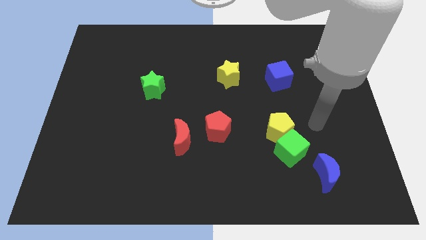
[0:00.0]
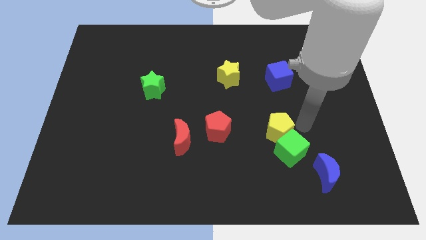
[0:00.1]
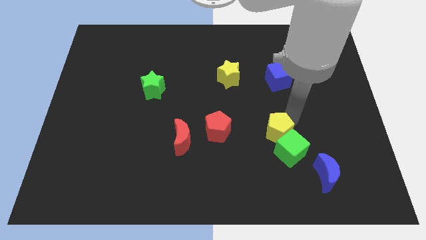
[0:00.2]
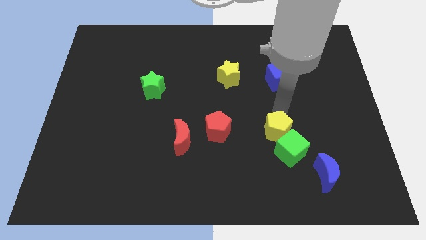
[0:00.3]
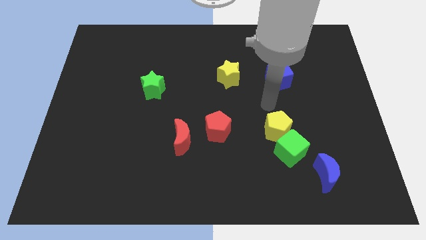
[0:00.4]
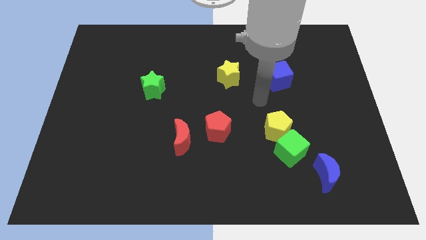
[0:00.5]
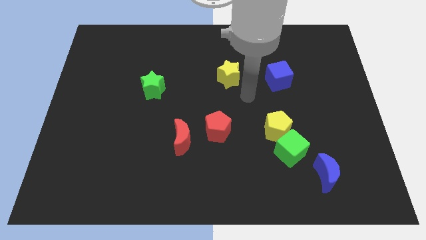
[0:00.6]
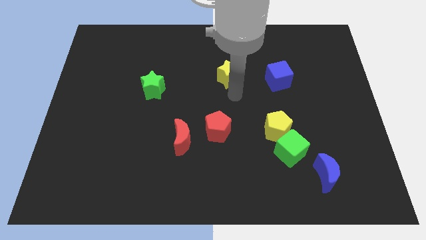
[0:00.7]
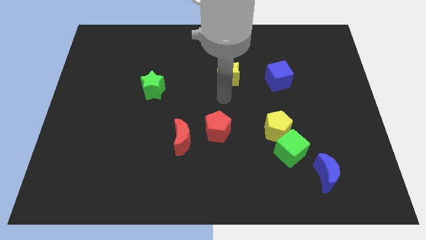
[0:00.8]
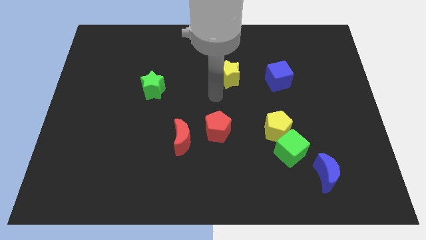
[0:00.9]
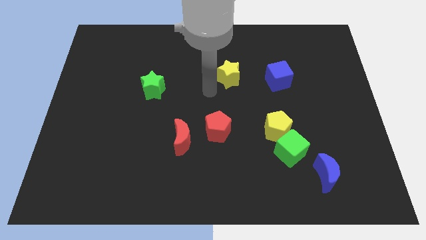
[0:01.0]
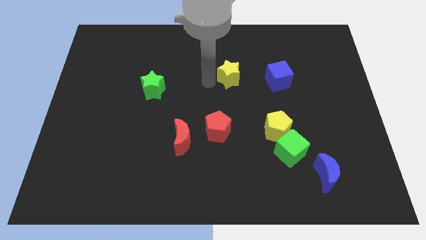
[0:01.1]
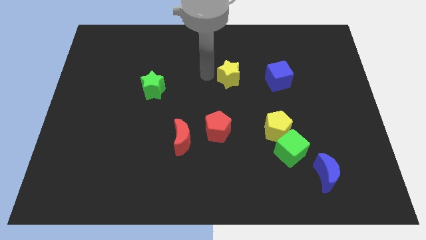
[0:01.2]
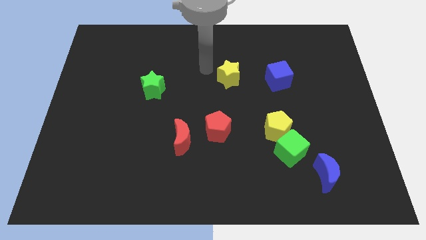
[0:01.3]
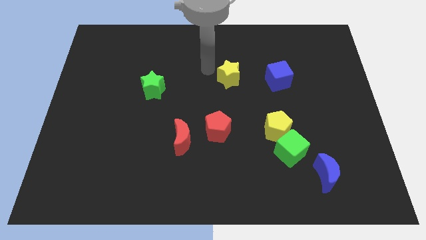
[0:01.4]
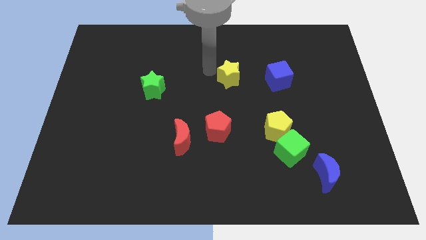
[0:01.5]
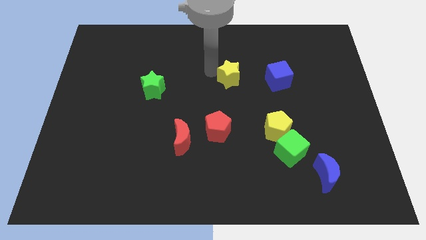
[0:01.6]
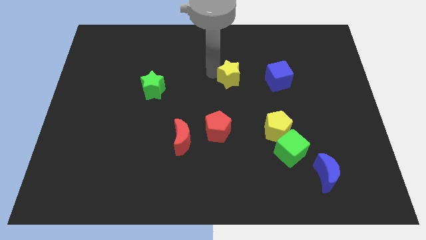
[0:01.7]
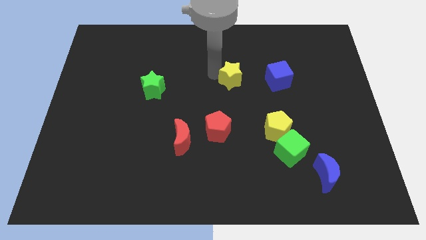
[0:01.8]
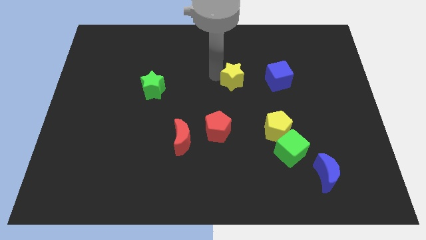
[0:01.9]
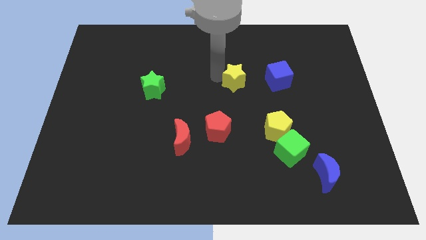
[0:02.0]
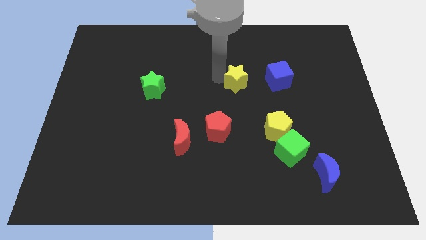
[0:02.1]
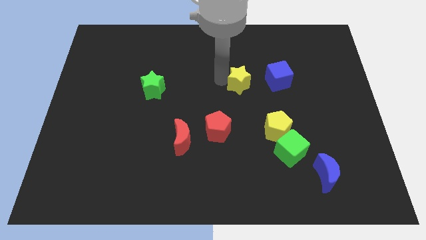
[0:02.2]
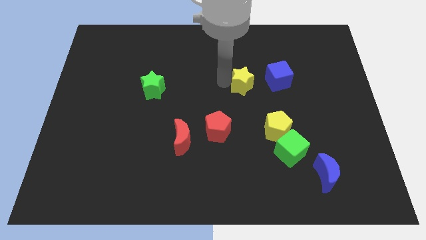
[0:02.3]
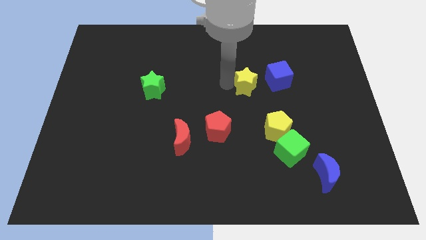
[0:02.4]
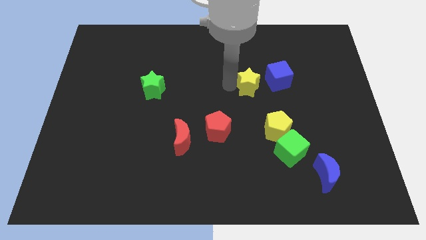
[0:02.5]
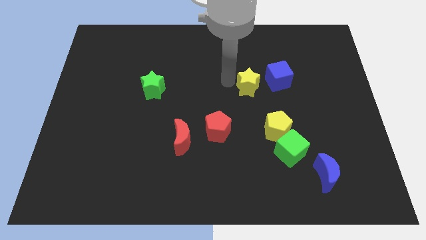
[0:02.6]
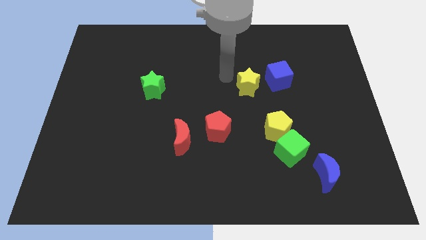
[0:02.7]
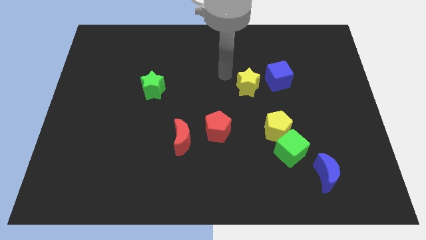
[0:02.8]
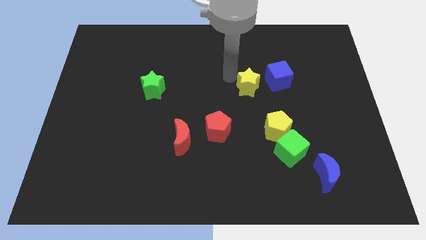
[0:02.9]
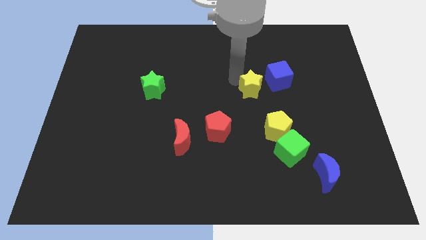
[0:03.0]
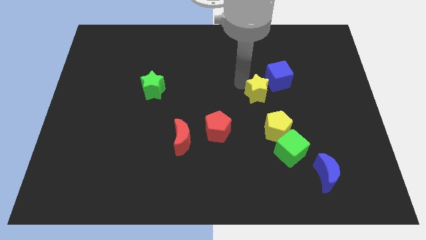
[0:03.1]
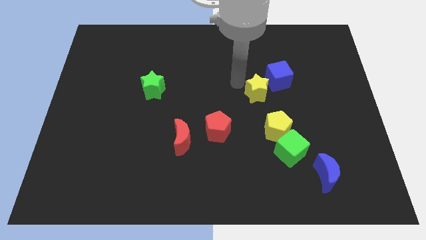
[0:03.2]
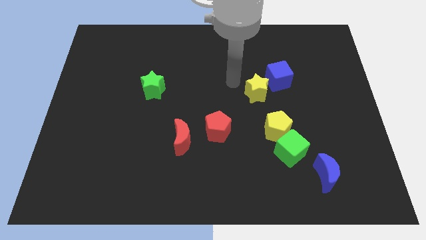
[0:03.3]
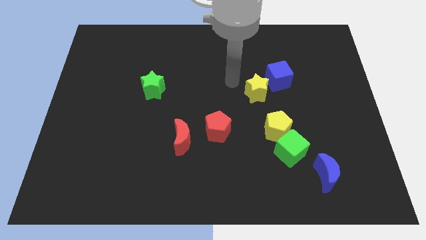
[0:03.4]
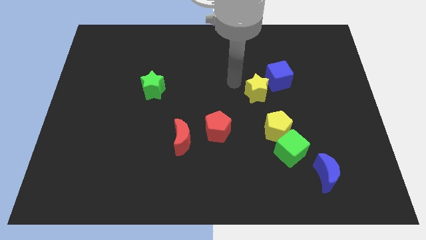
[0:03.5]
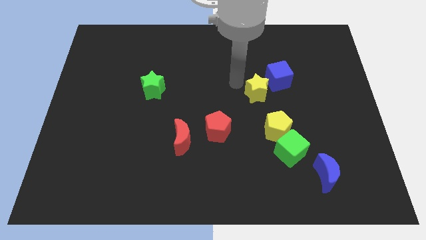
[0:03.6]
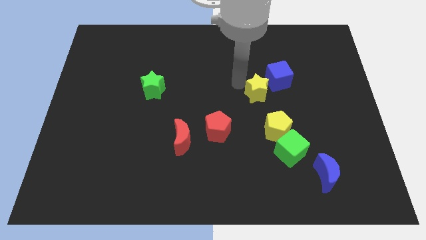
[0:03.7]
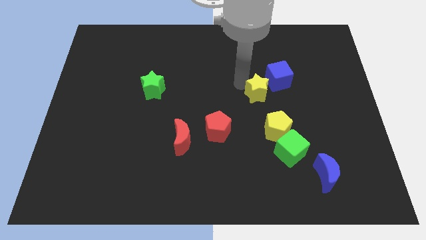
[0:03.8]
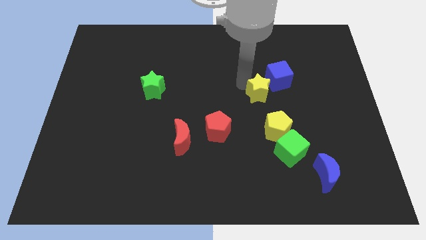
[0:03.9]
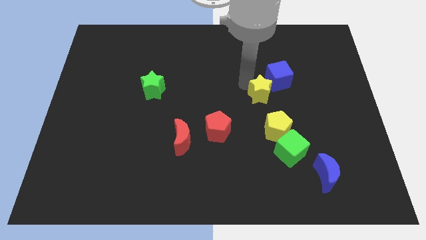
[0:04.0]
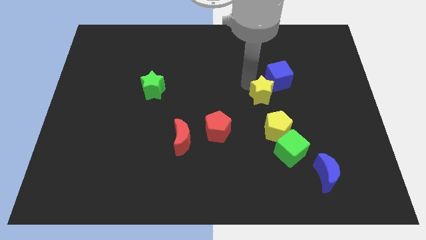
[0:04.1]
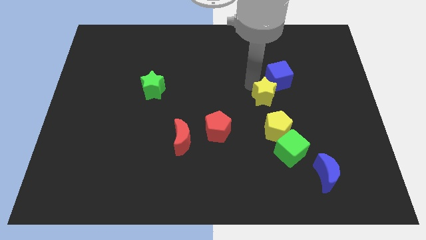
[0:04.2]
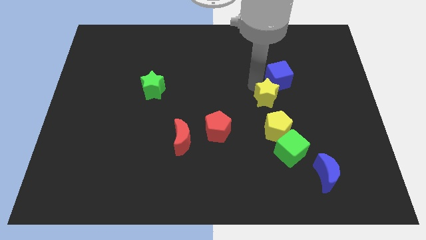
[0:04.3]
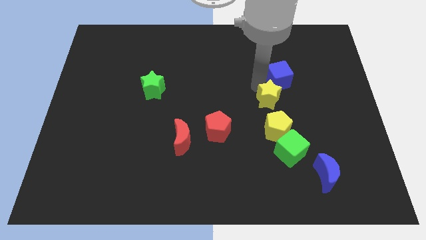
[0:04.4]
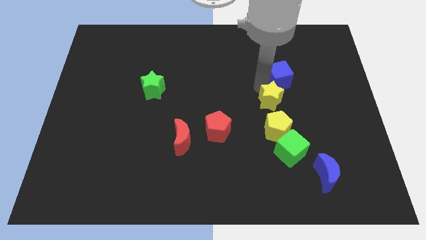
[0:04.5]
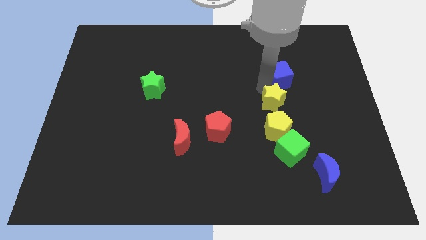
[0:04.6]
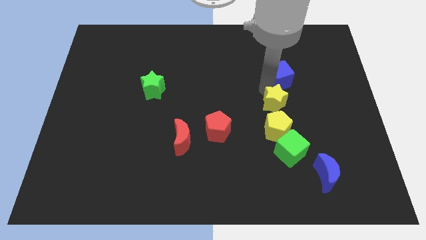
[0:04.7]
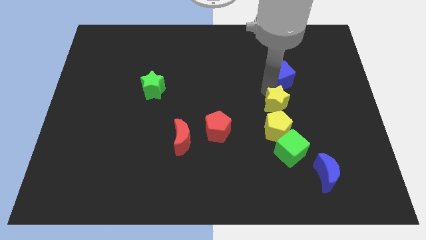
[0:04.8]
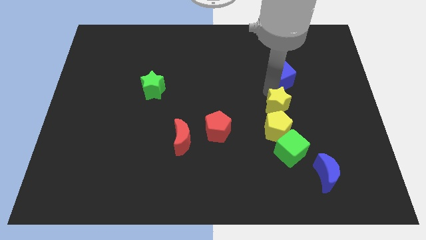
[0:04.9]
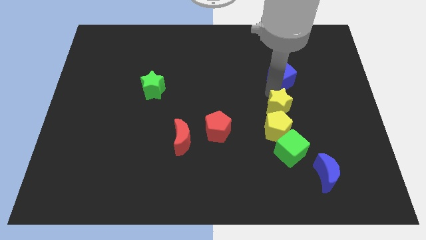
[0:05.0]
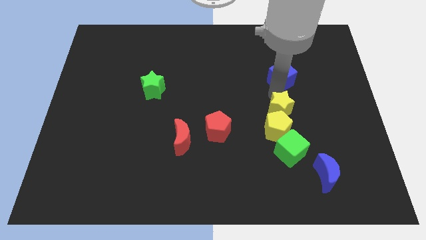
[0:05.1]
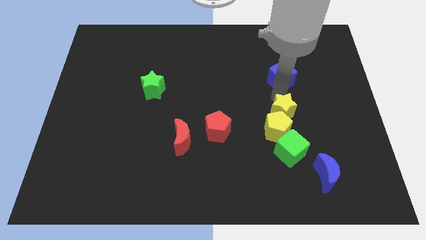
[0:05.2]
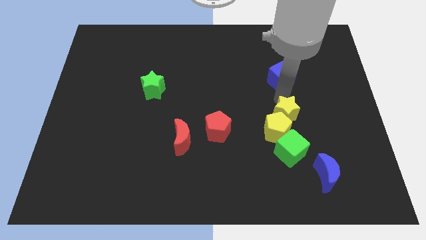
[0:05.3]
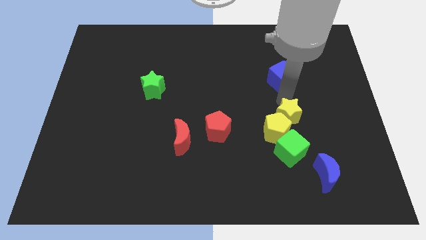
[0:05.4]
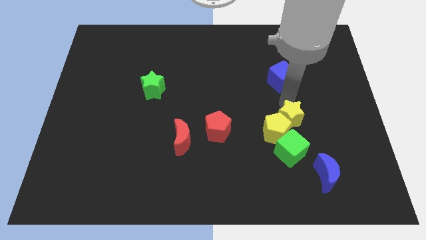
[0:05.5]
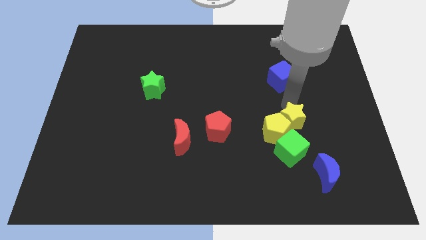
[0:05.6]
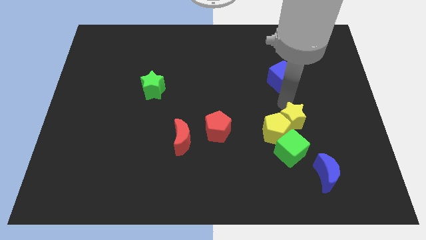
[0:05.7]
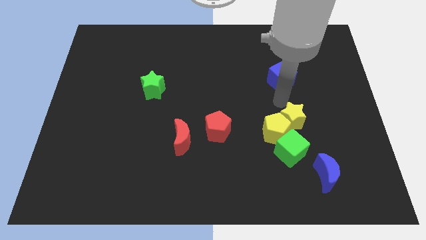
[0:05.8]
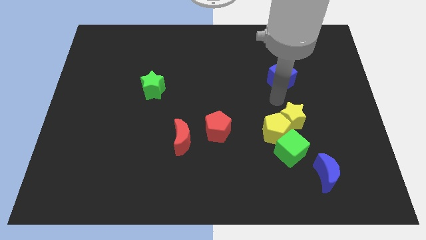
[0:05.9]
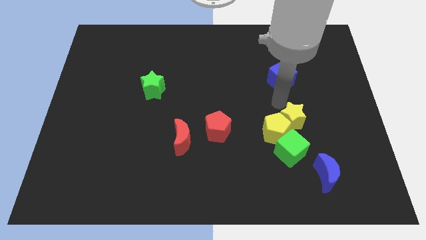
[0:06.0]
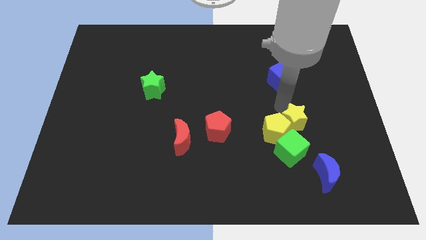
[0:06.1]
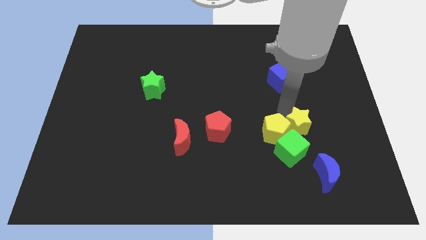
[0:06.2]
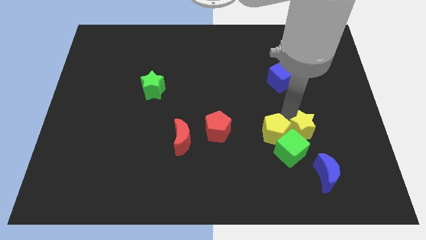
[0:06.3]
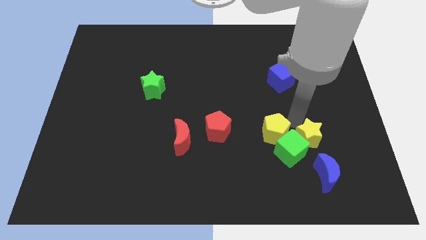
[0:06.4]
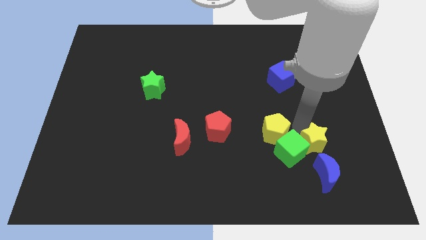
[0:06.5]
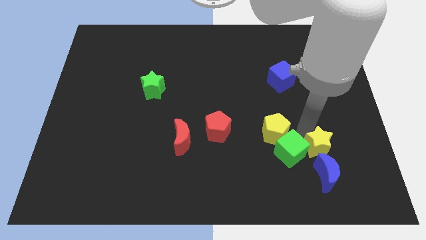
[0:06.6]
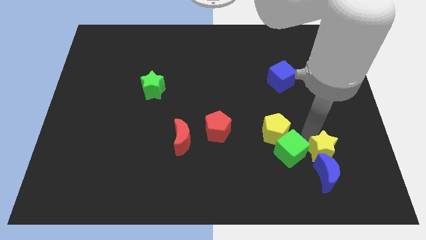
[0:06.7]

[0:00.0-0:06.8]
push the yellow star towards the blue moon

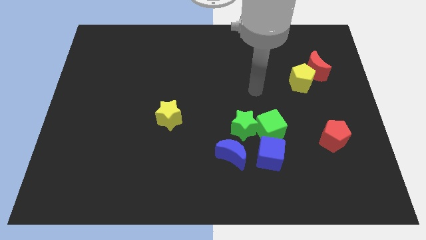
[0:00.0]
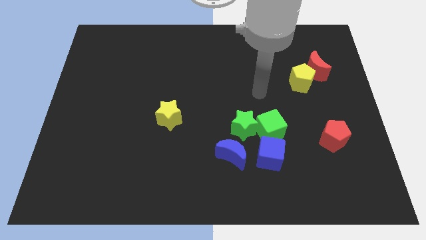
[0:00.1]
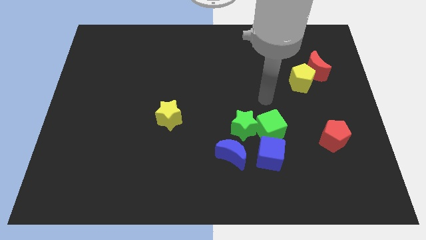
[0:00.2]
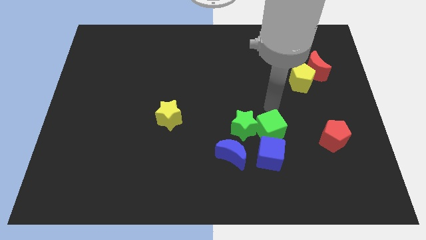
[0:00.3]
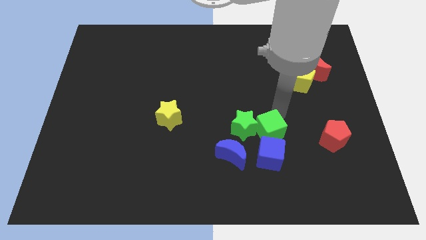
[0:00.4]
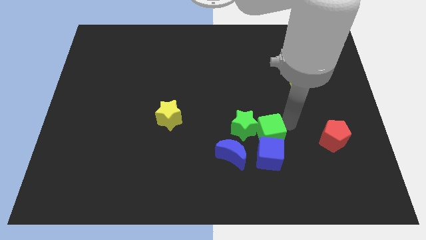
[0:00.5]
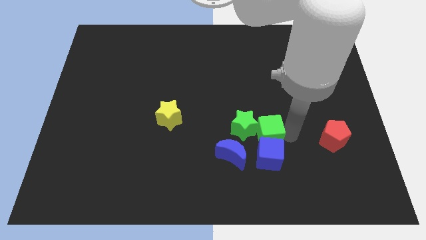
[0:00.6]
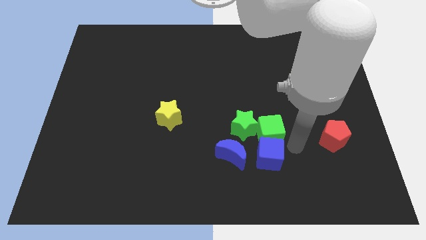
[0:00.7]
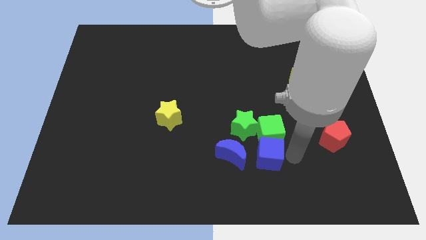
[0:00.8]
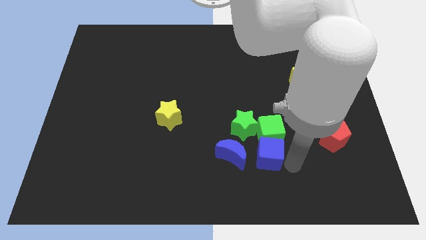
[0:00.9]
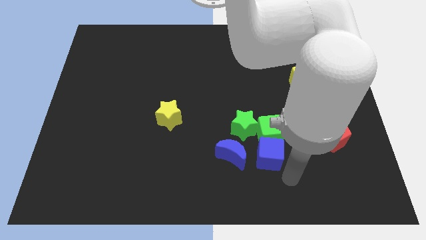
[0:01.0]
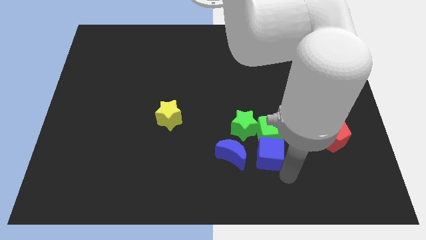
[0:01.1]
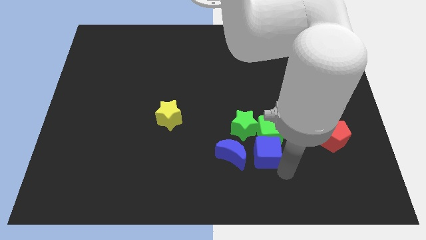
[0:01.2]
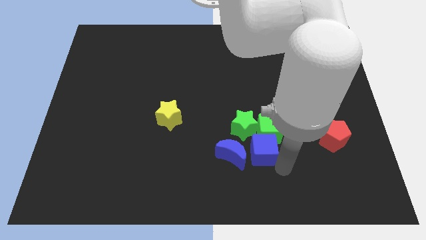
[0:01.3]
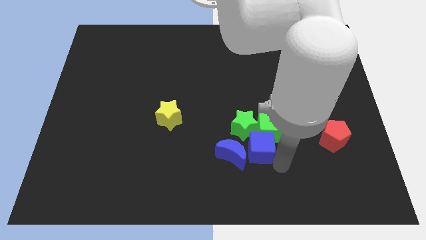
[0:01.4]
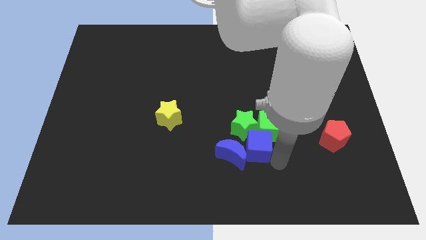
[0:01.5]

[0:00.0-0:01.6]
put the blue cube close to the green star
